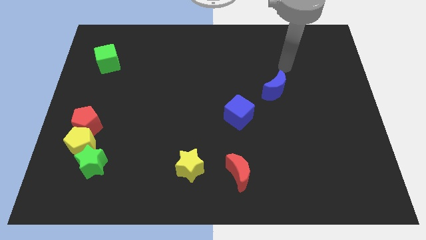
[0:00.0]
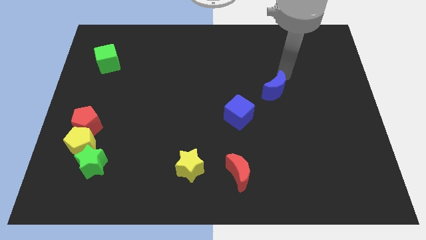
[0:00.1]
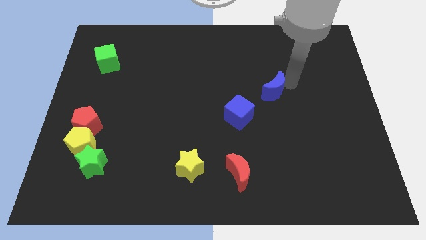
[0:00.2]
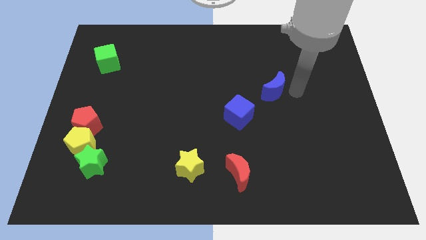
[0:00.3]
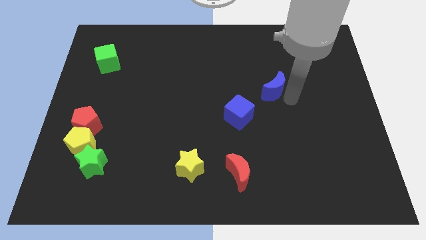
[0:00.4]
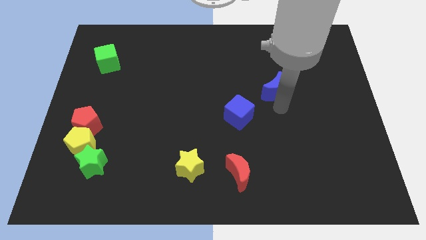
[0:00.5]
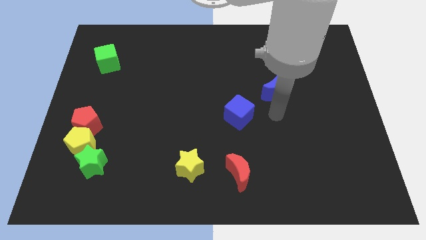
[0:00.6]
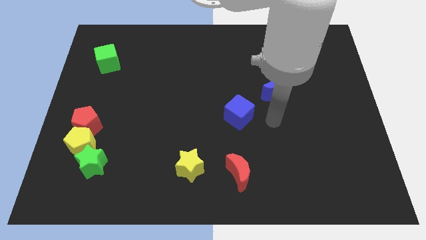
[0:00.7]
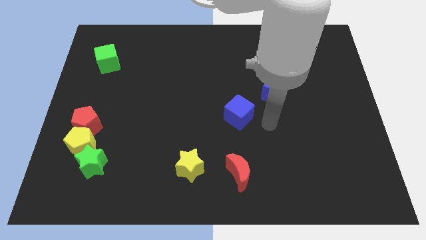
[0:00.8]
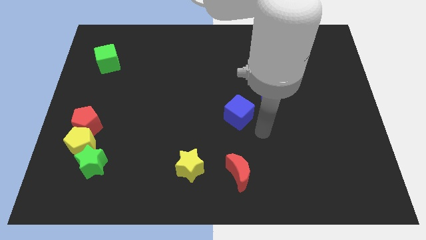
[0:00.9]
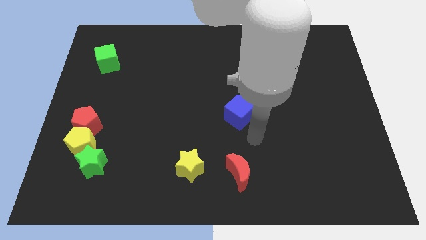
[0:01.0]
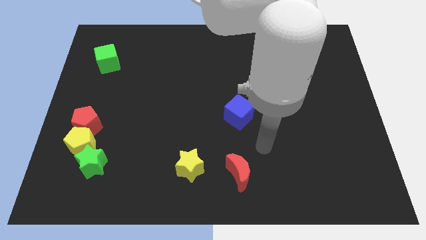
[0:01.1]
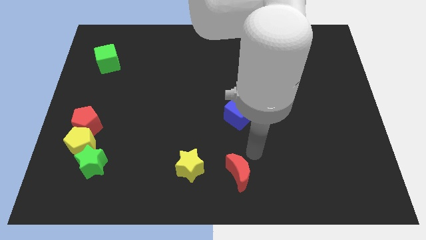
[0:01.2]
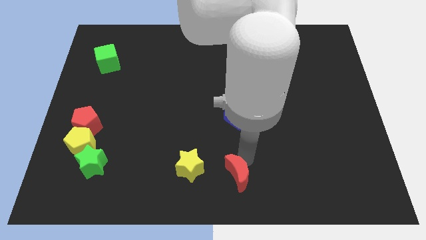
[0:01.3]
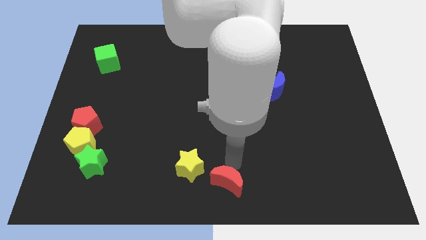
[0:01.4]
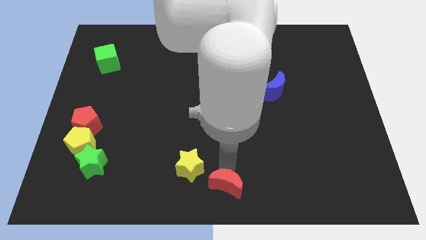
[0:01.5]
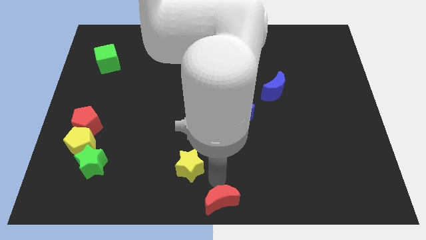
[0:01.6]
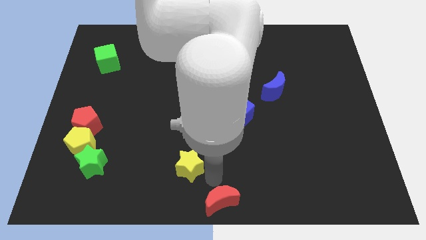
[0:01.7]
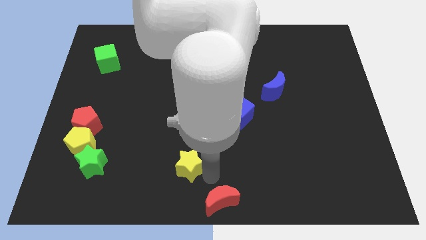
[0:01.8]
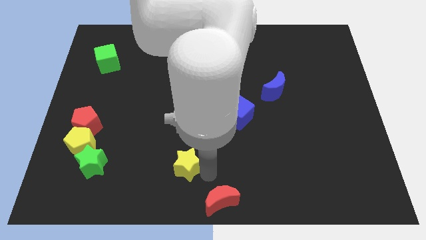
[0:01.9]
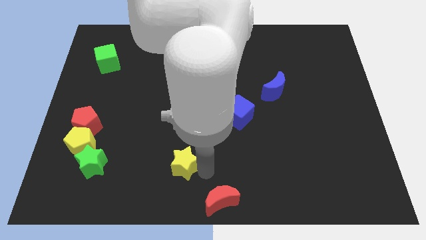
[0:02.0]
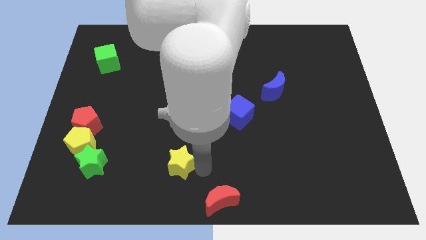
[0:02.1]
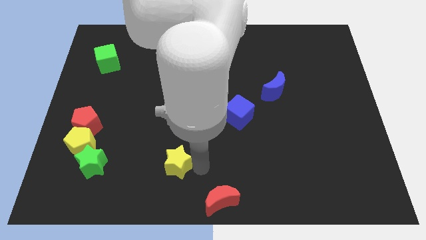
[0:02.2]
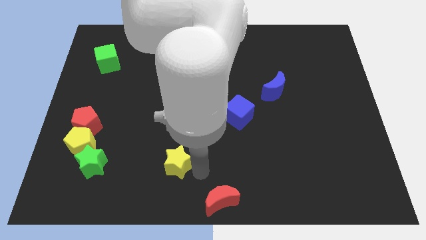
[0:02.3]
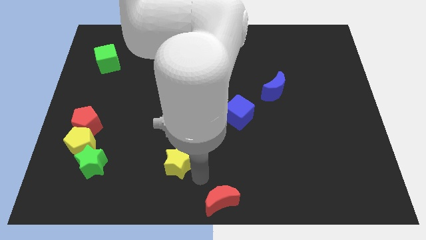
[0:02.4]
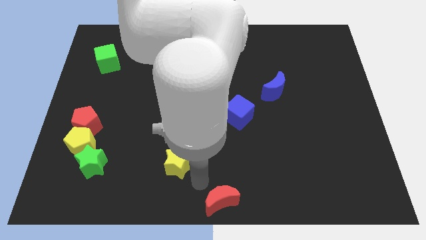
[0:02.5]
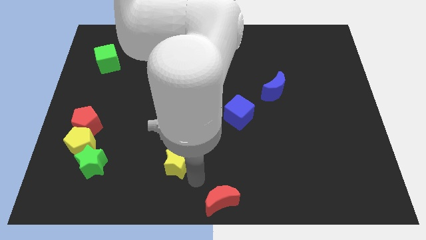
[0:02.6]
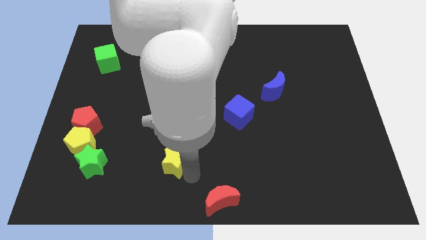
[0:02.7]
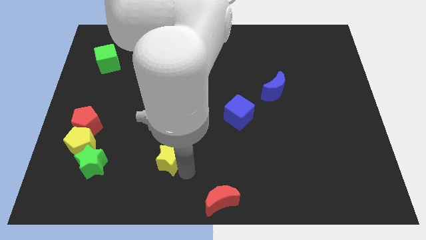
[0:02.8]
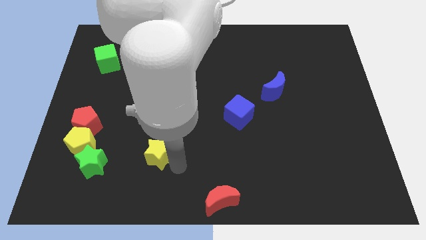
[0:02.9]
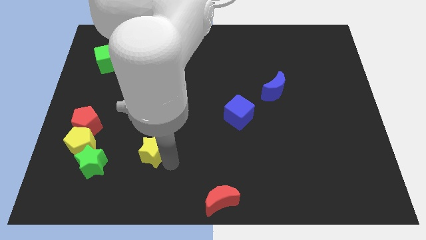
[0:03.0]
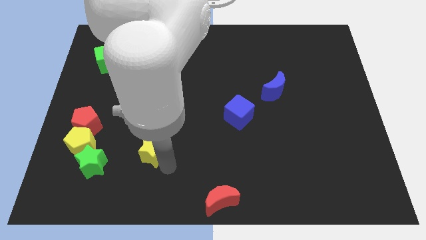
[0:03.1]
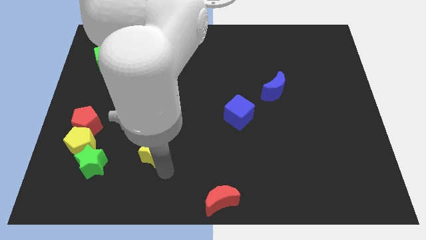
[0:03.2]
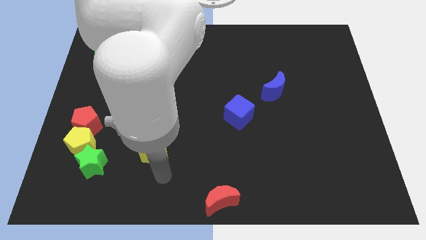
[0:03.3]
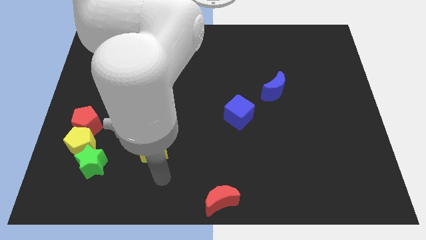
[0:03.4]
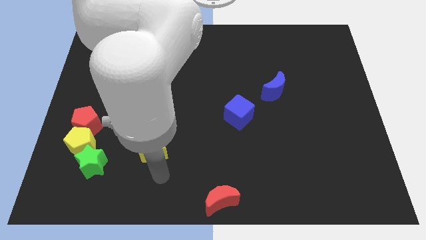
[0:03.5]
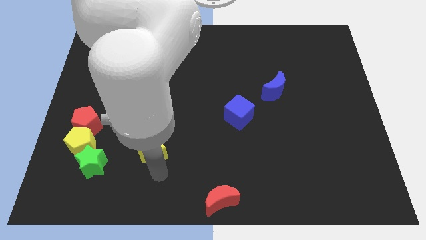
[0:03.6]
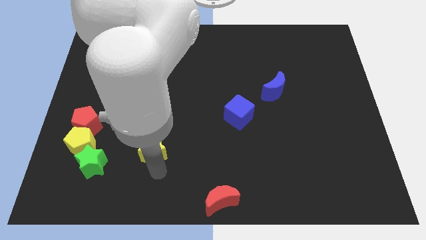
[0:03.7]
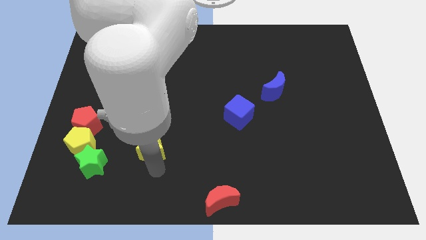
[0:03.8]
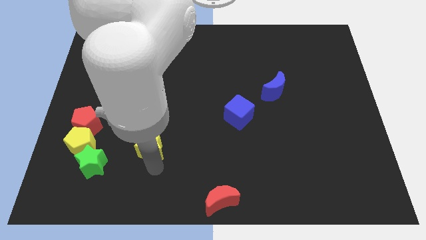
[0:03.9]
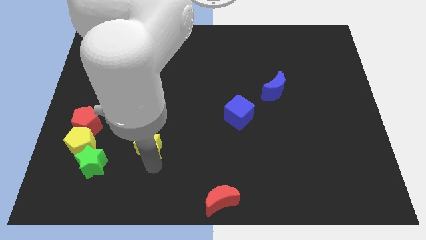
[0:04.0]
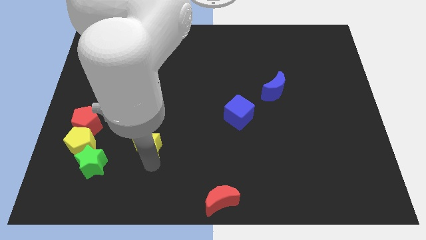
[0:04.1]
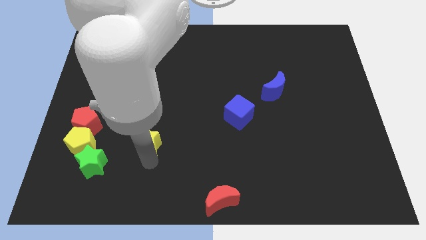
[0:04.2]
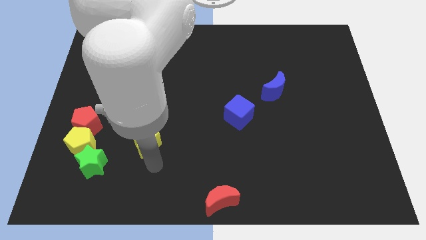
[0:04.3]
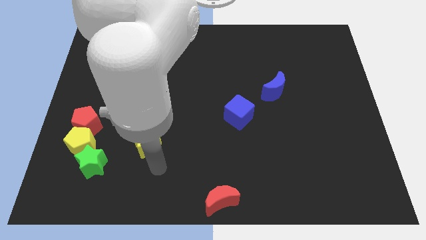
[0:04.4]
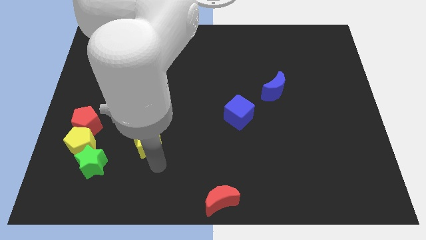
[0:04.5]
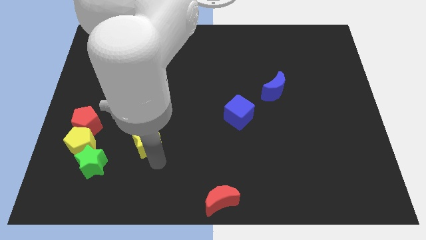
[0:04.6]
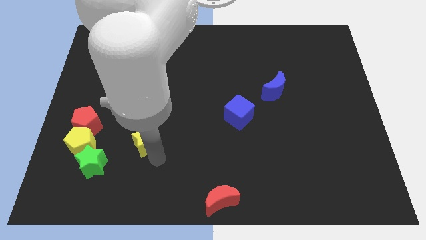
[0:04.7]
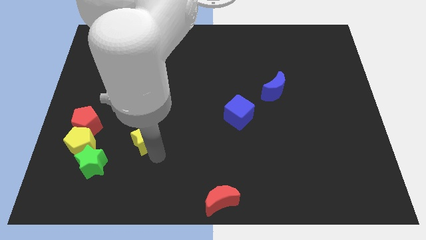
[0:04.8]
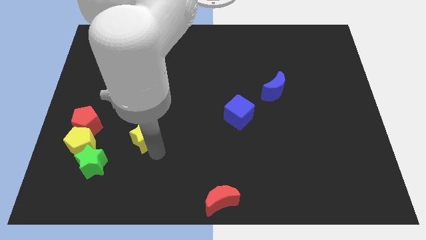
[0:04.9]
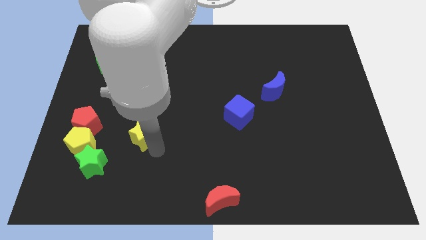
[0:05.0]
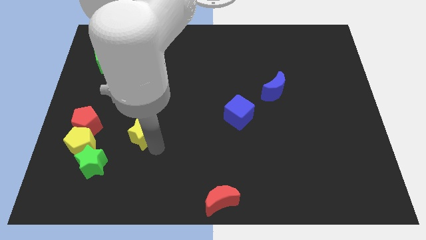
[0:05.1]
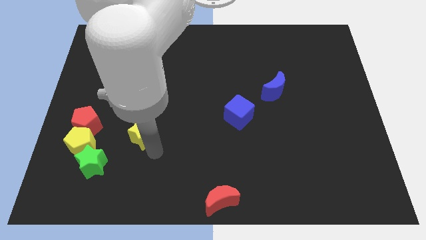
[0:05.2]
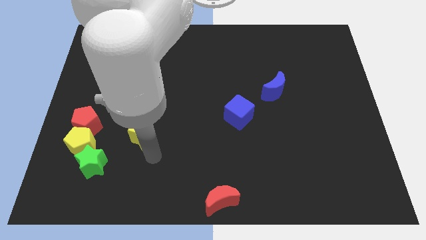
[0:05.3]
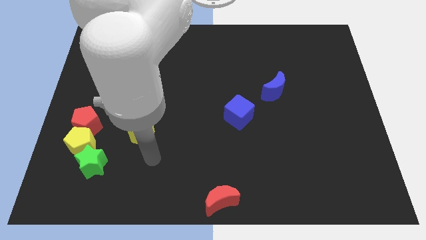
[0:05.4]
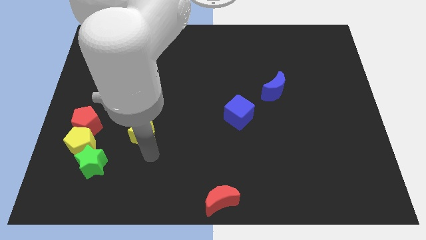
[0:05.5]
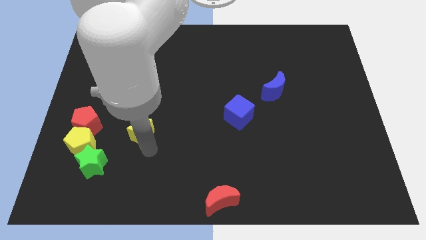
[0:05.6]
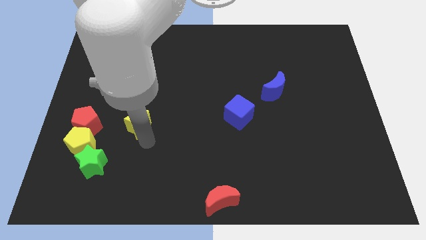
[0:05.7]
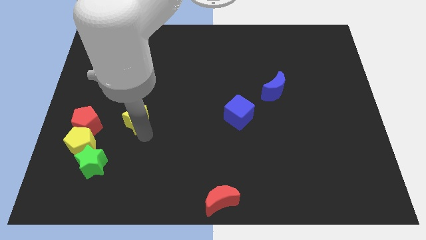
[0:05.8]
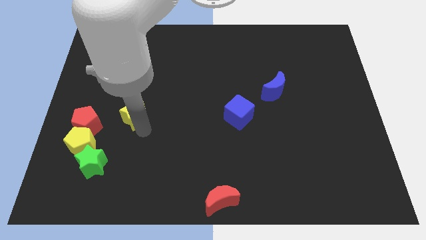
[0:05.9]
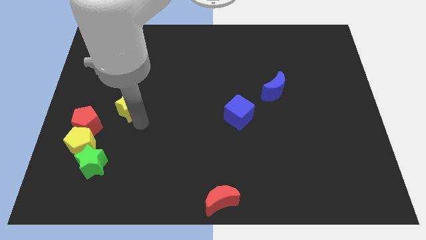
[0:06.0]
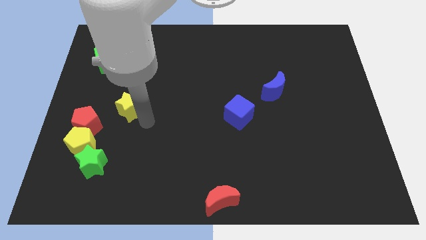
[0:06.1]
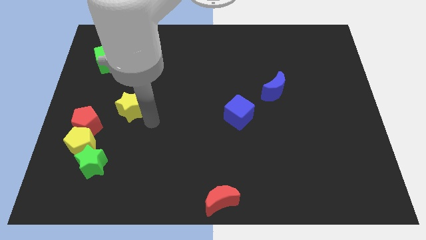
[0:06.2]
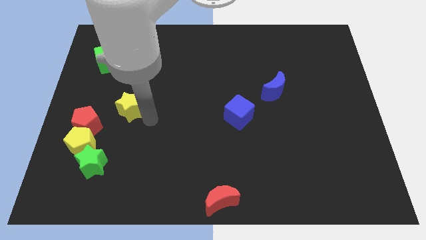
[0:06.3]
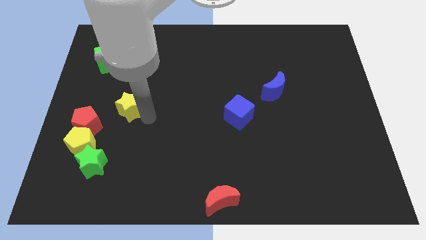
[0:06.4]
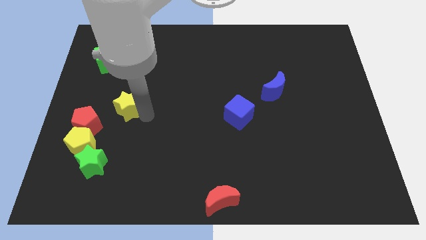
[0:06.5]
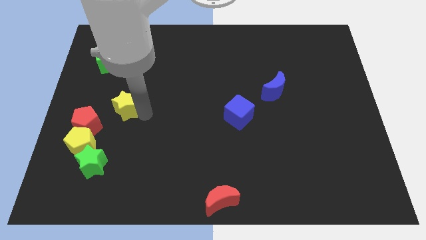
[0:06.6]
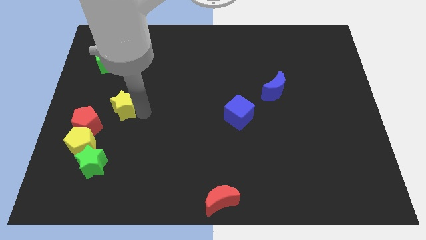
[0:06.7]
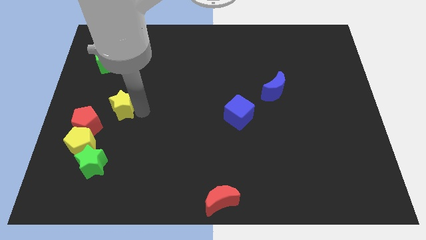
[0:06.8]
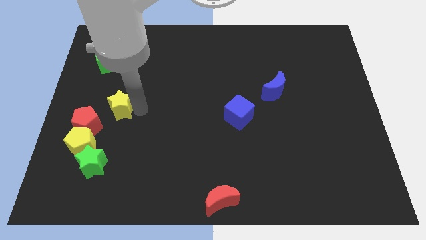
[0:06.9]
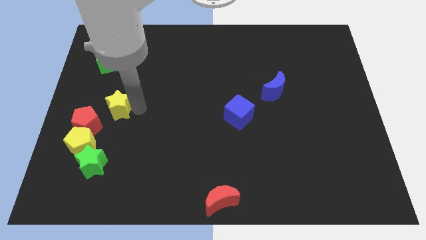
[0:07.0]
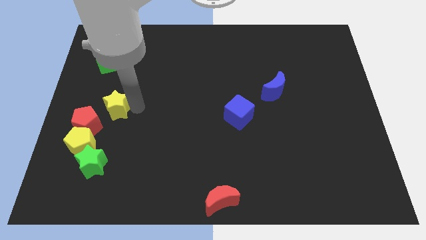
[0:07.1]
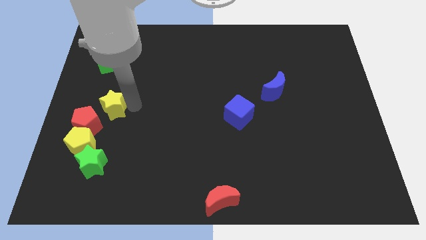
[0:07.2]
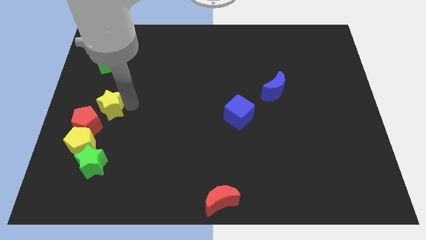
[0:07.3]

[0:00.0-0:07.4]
slide the yellow star to the top of the red pentagon
